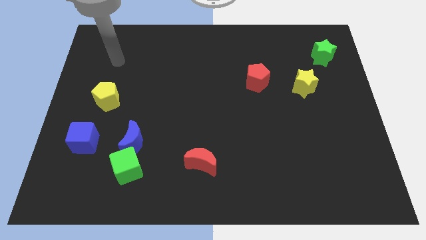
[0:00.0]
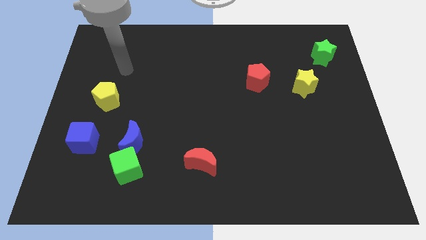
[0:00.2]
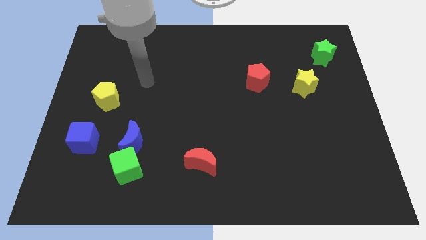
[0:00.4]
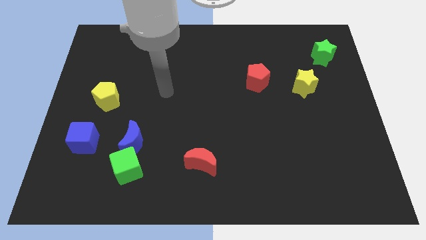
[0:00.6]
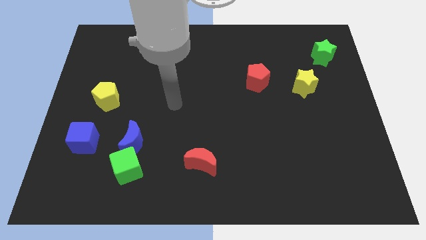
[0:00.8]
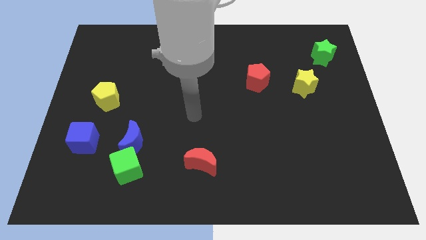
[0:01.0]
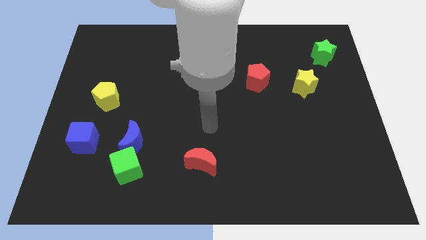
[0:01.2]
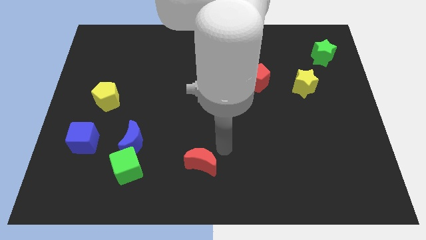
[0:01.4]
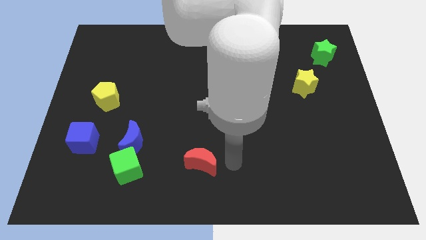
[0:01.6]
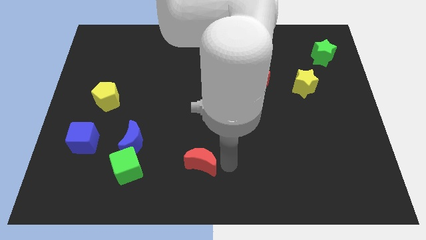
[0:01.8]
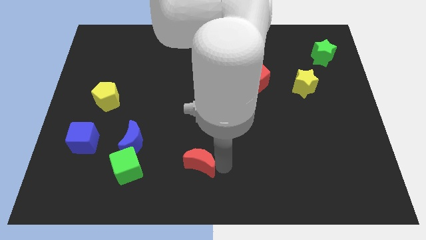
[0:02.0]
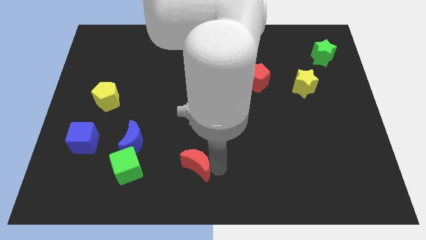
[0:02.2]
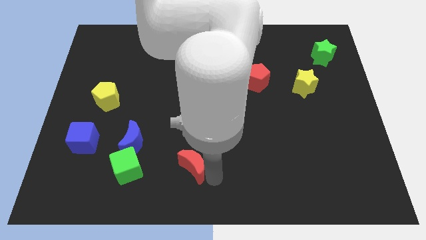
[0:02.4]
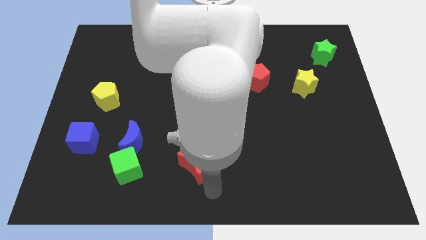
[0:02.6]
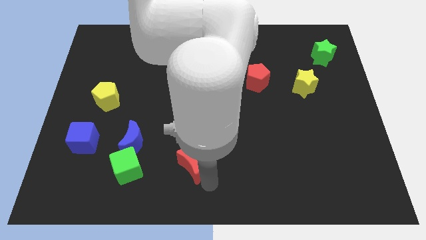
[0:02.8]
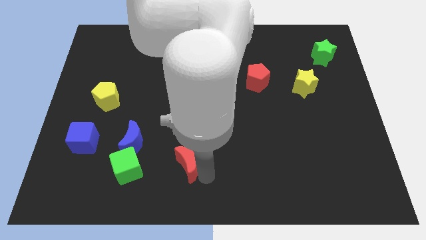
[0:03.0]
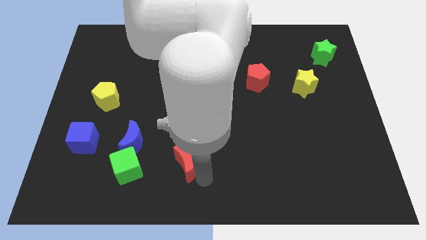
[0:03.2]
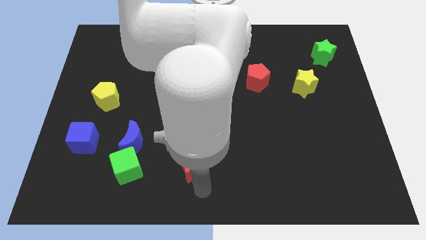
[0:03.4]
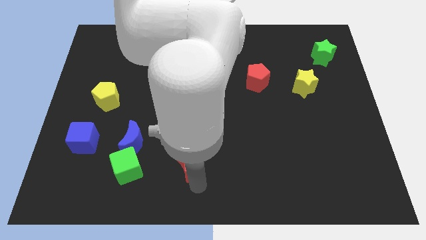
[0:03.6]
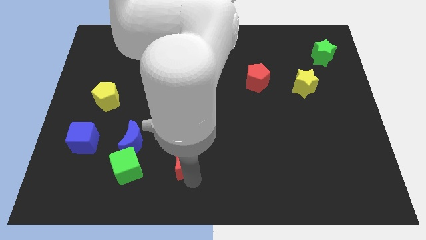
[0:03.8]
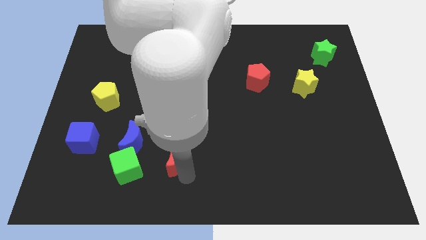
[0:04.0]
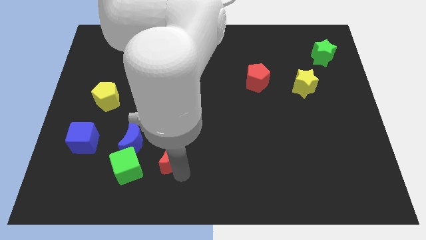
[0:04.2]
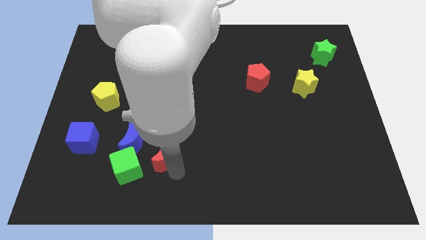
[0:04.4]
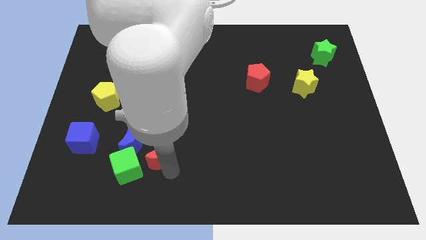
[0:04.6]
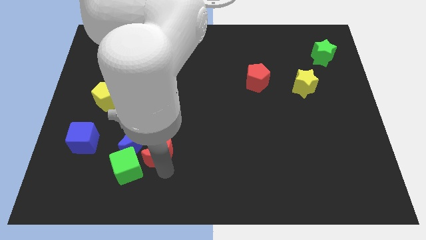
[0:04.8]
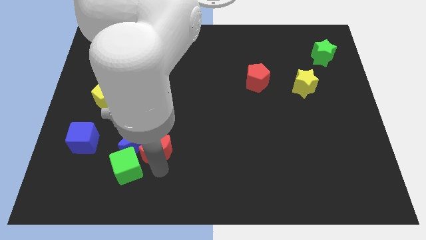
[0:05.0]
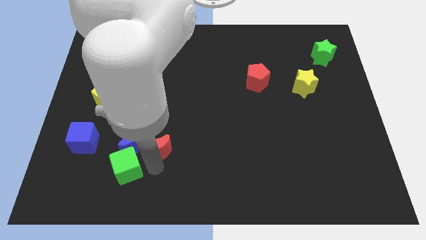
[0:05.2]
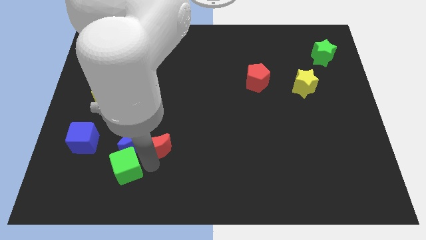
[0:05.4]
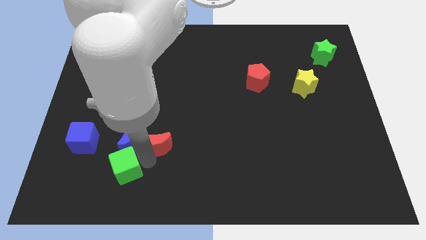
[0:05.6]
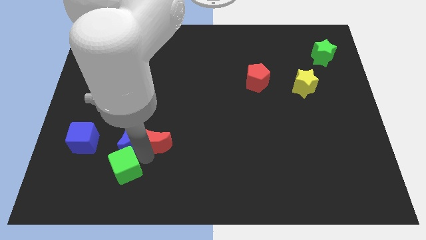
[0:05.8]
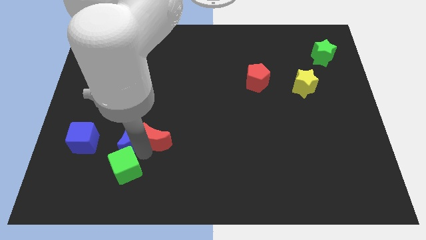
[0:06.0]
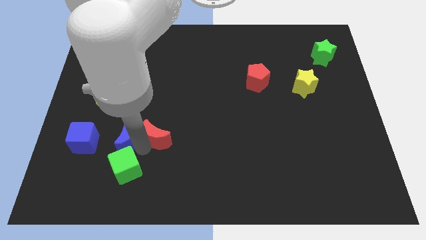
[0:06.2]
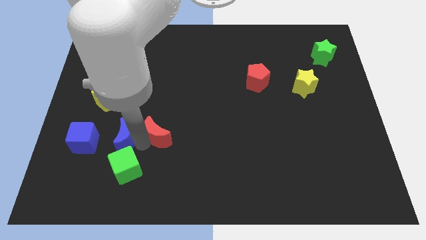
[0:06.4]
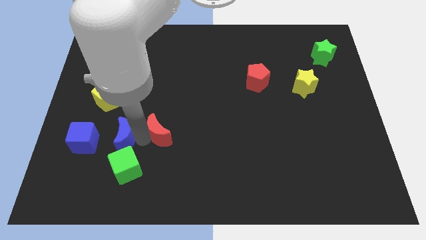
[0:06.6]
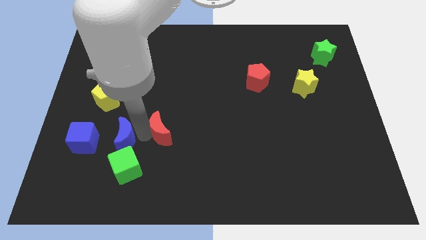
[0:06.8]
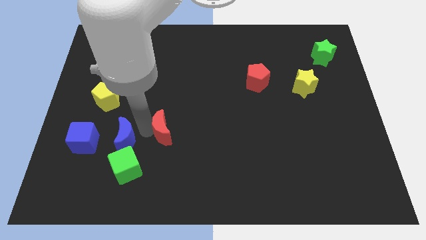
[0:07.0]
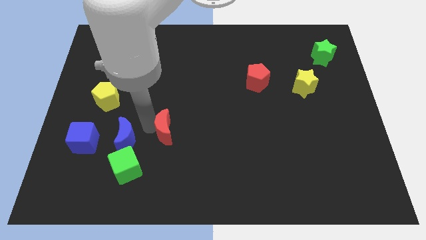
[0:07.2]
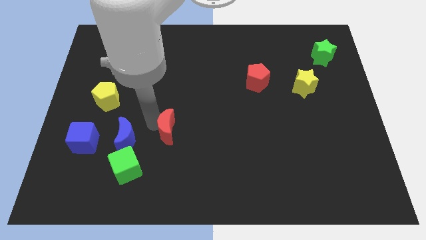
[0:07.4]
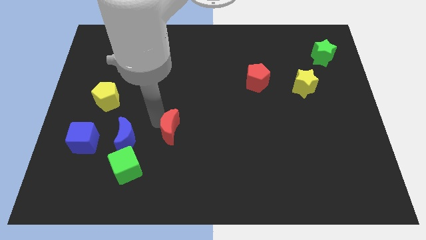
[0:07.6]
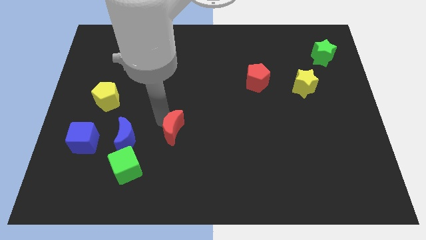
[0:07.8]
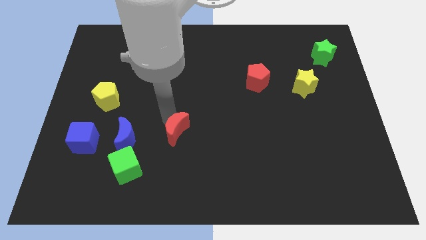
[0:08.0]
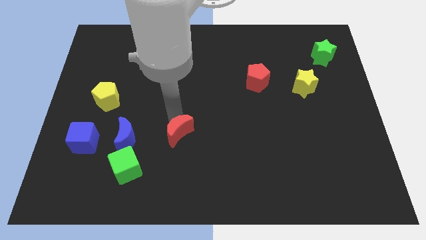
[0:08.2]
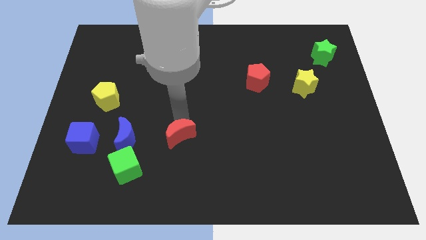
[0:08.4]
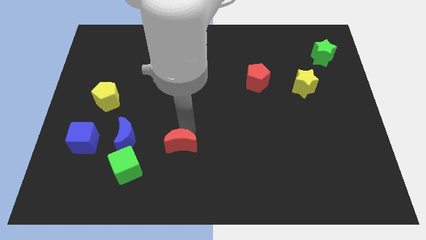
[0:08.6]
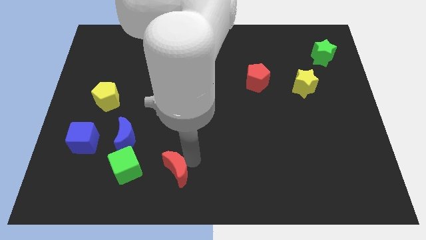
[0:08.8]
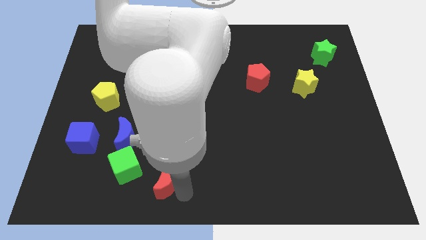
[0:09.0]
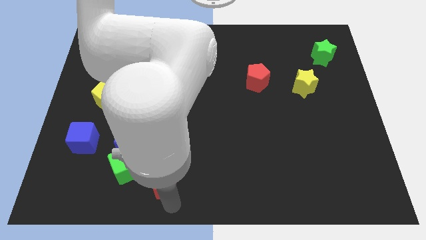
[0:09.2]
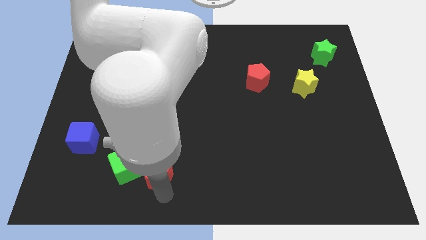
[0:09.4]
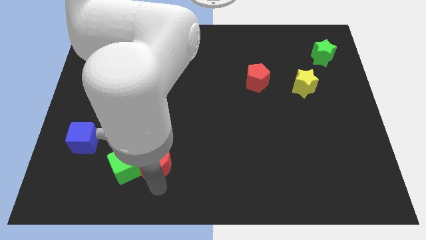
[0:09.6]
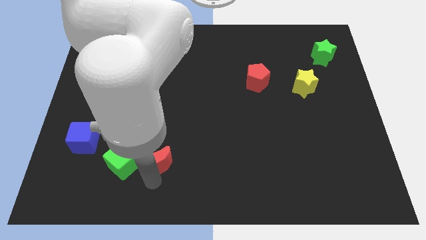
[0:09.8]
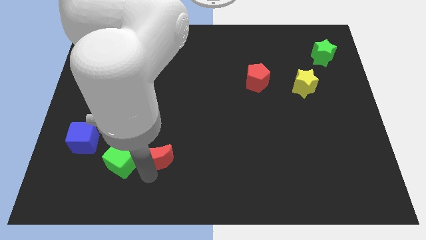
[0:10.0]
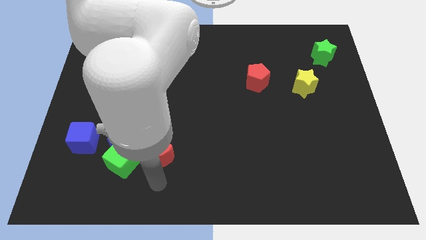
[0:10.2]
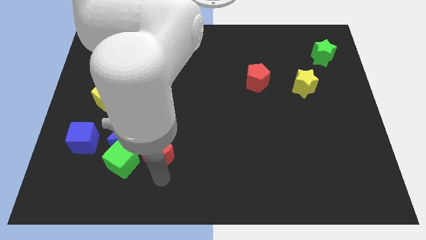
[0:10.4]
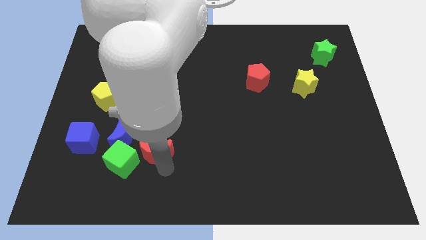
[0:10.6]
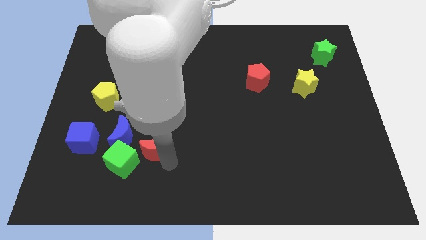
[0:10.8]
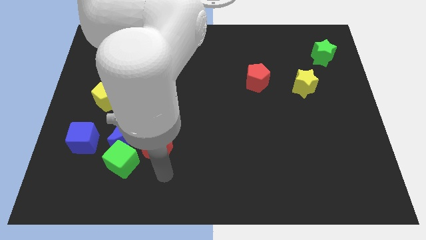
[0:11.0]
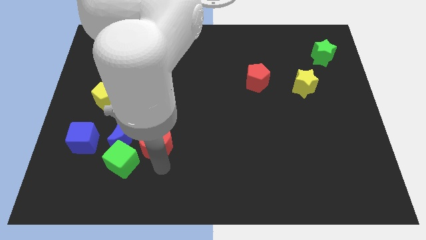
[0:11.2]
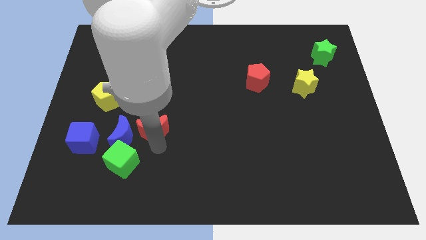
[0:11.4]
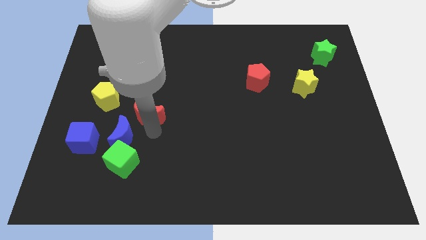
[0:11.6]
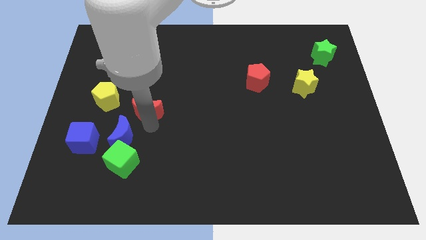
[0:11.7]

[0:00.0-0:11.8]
move the red moon to the right of the yellow pentagon

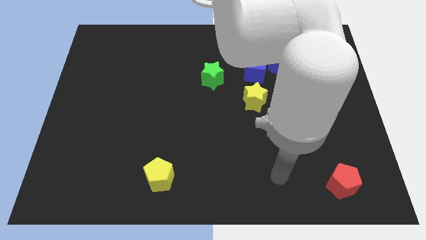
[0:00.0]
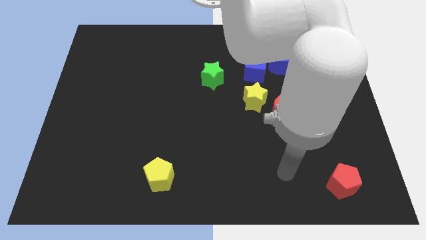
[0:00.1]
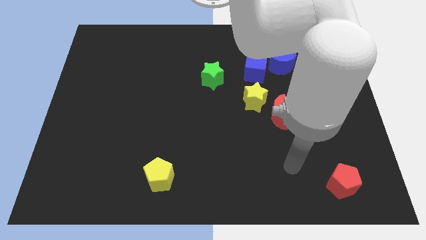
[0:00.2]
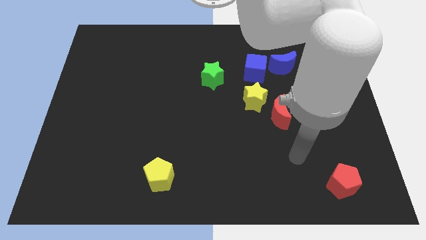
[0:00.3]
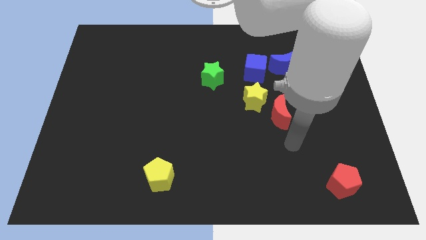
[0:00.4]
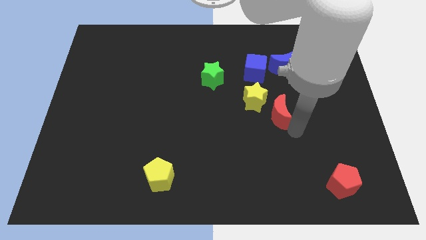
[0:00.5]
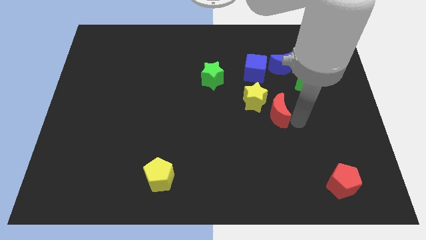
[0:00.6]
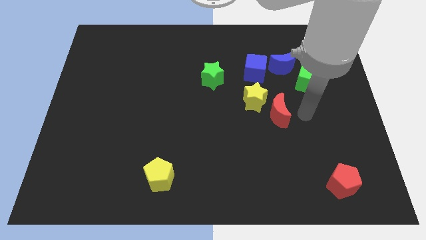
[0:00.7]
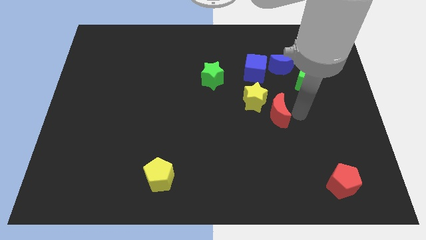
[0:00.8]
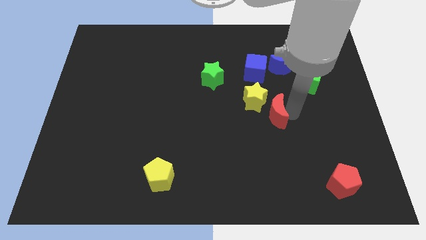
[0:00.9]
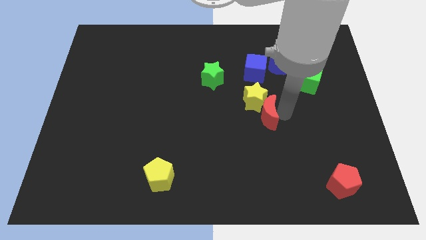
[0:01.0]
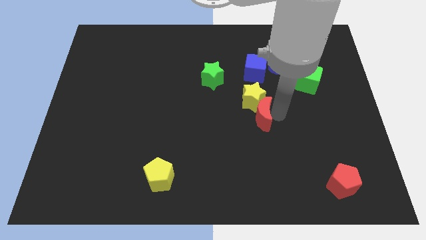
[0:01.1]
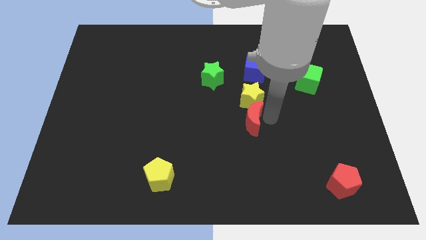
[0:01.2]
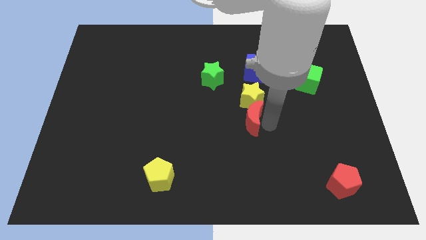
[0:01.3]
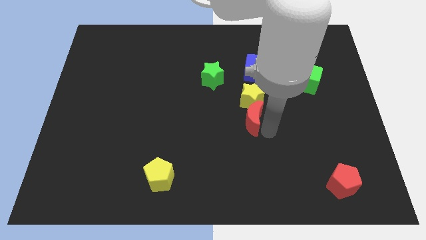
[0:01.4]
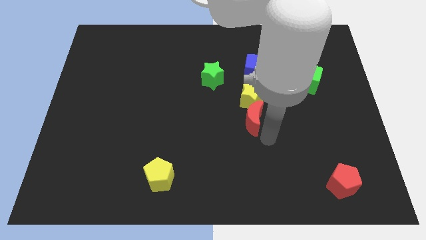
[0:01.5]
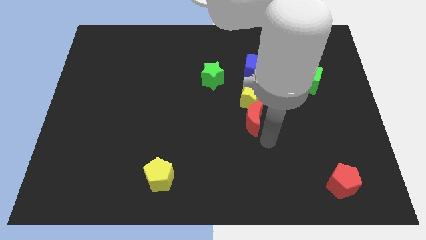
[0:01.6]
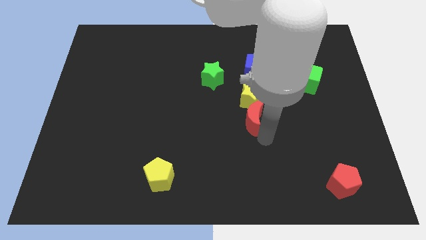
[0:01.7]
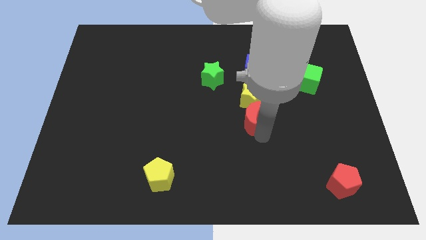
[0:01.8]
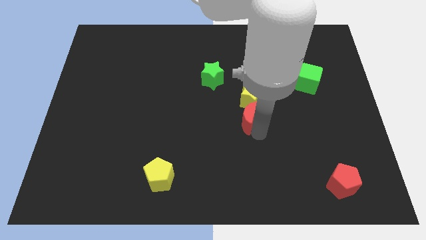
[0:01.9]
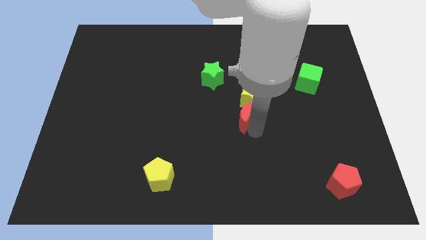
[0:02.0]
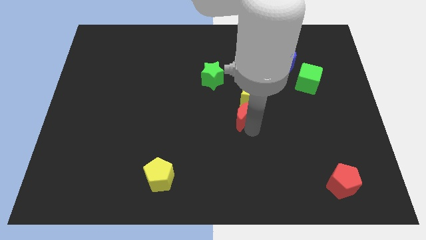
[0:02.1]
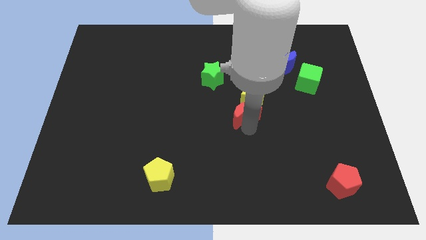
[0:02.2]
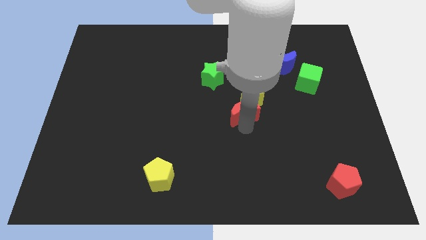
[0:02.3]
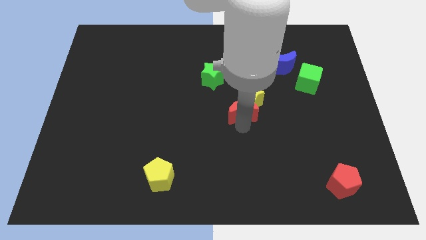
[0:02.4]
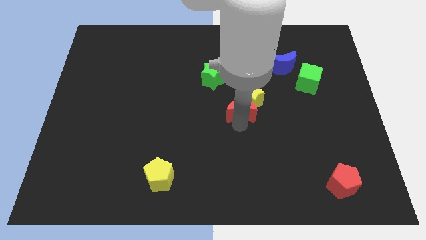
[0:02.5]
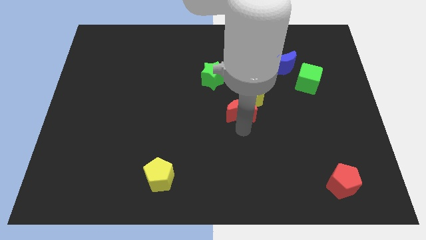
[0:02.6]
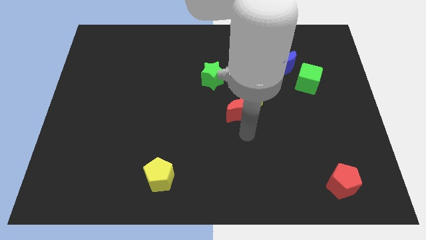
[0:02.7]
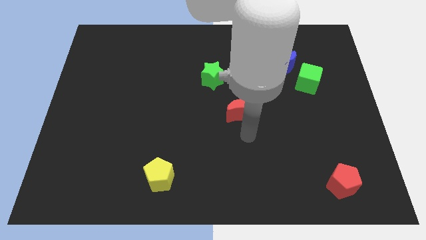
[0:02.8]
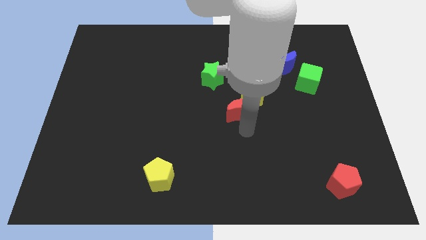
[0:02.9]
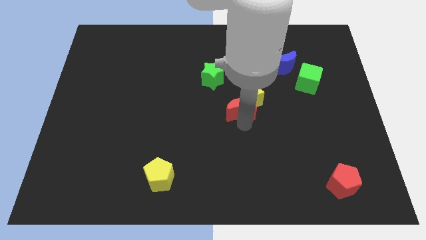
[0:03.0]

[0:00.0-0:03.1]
move the red moon diagonally down and to the right of the green star
